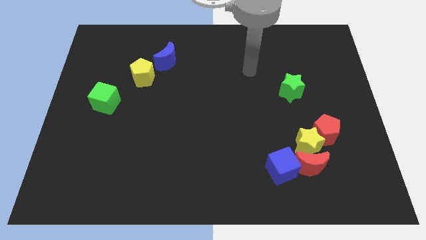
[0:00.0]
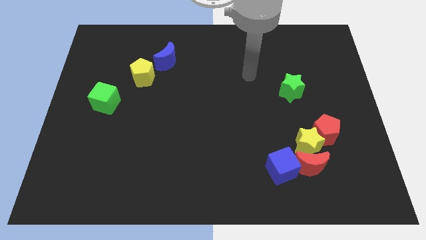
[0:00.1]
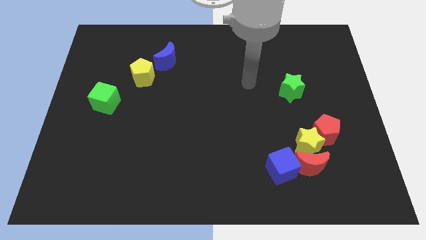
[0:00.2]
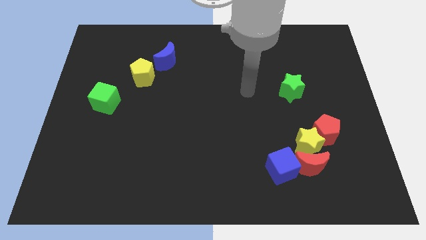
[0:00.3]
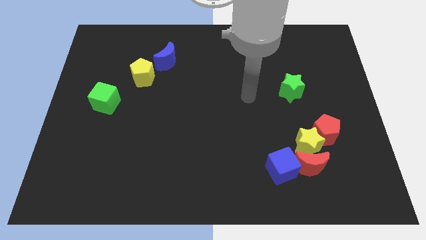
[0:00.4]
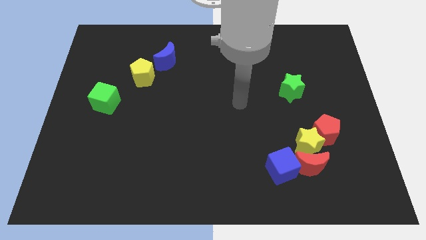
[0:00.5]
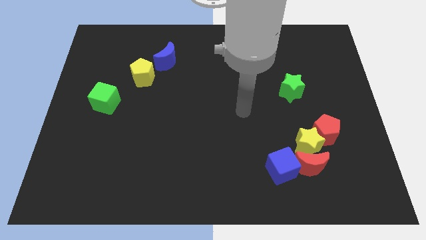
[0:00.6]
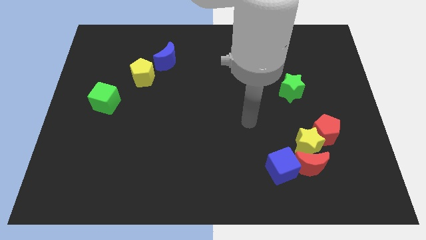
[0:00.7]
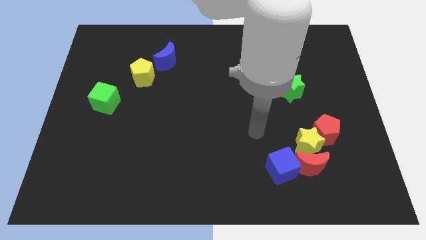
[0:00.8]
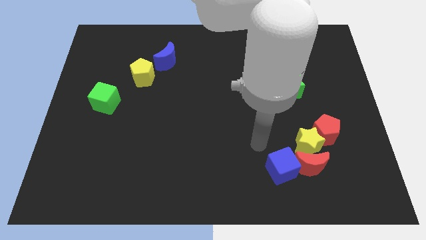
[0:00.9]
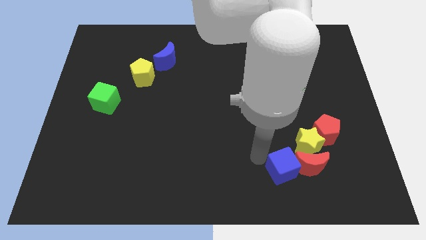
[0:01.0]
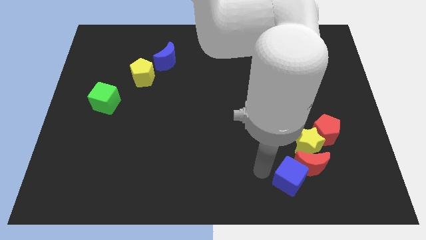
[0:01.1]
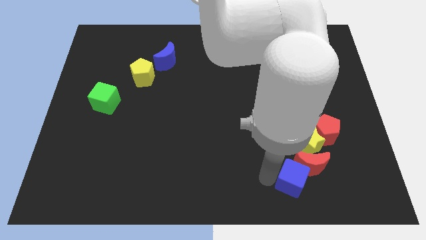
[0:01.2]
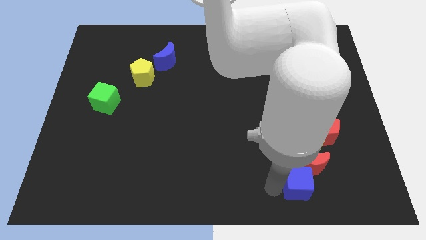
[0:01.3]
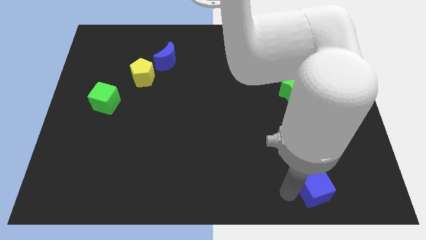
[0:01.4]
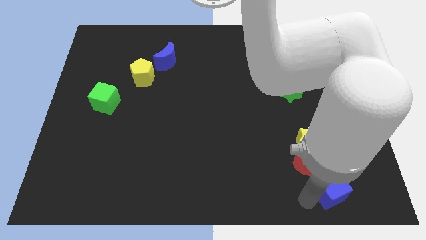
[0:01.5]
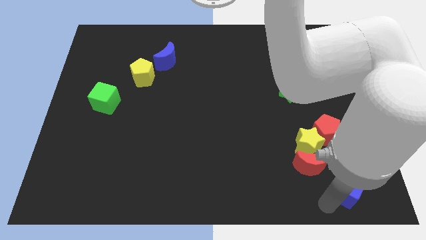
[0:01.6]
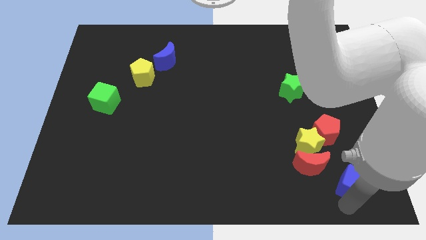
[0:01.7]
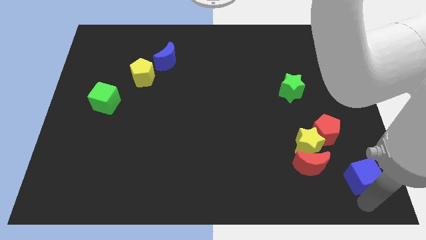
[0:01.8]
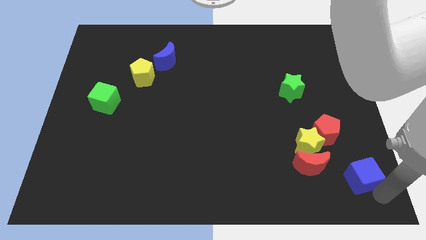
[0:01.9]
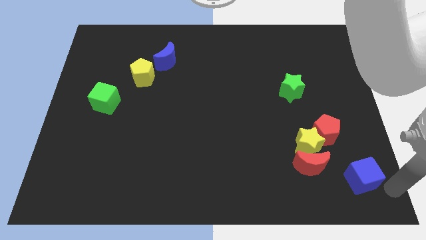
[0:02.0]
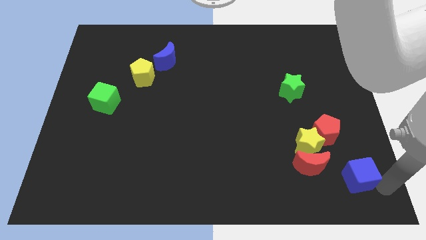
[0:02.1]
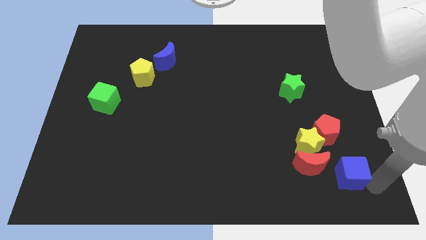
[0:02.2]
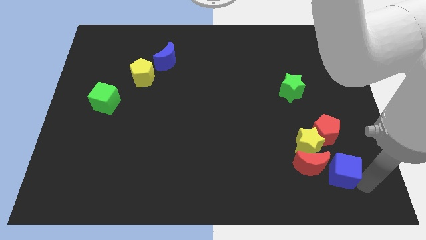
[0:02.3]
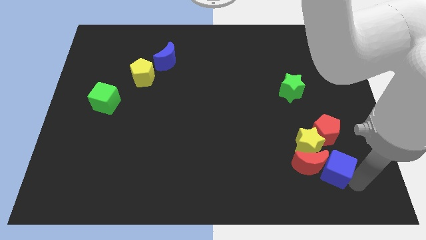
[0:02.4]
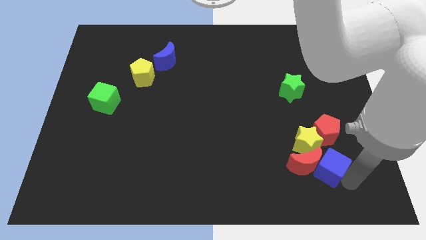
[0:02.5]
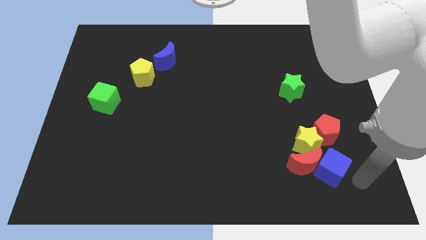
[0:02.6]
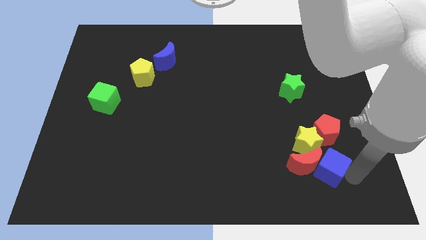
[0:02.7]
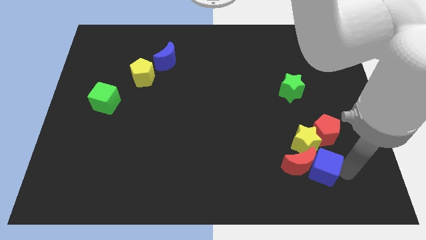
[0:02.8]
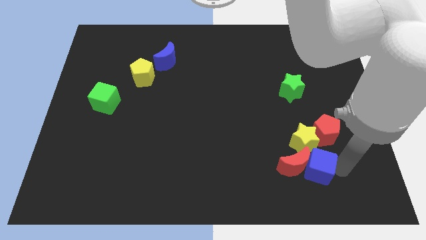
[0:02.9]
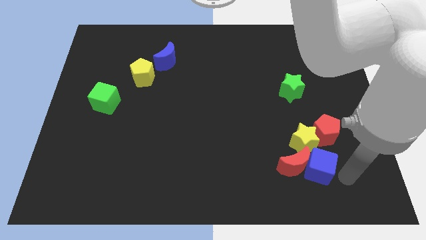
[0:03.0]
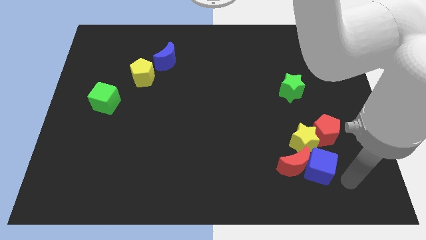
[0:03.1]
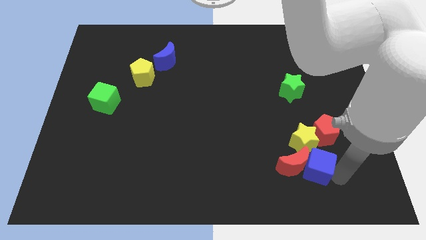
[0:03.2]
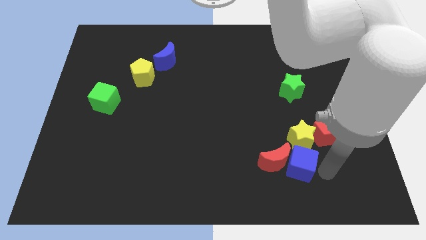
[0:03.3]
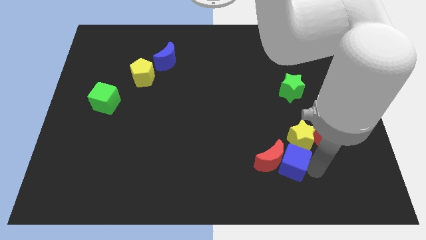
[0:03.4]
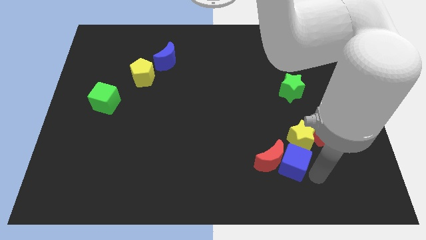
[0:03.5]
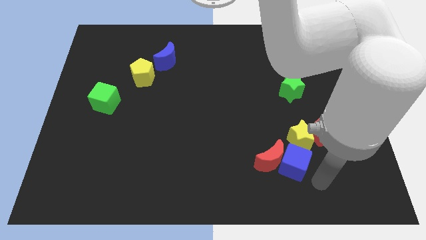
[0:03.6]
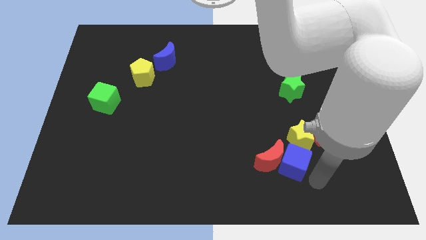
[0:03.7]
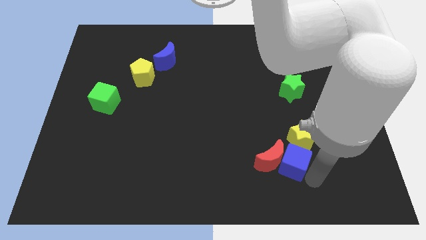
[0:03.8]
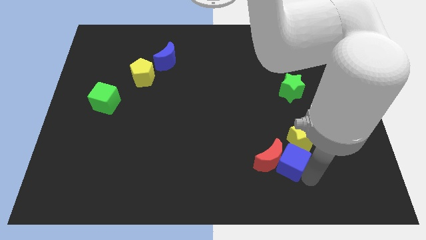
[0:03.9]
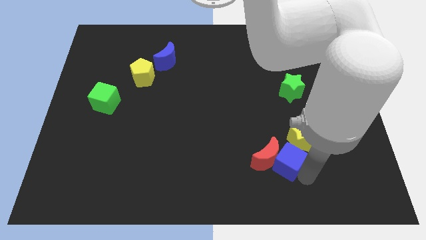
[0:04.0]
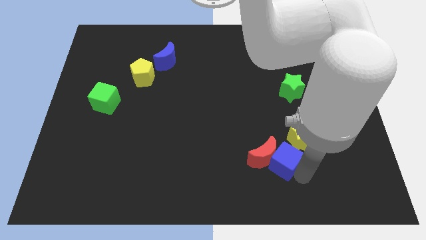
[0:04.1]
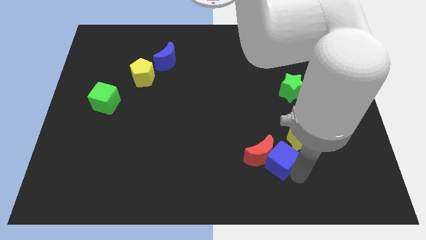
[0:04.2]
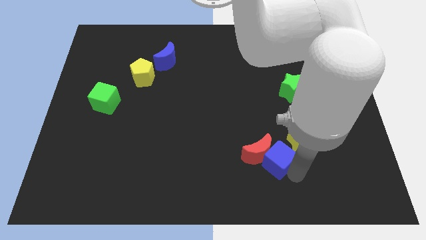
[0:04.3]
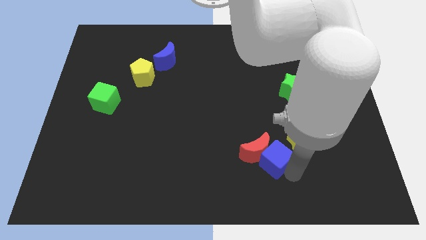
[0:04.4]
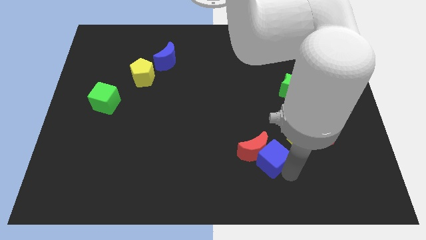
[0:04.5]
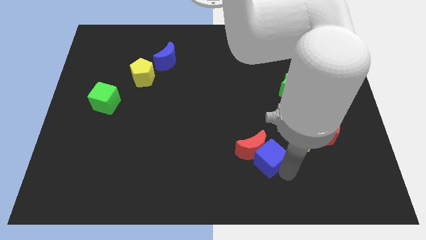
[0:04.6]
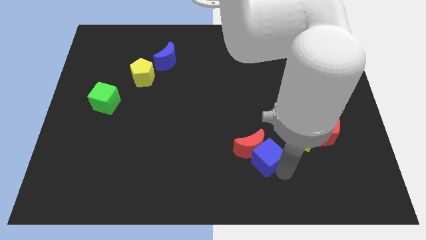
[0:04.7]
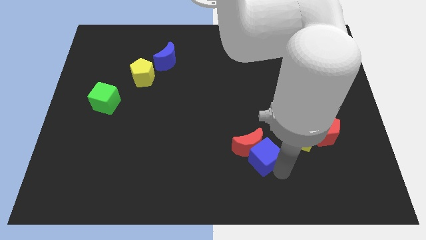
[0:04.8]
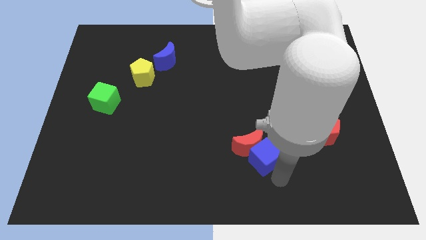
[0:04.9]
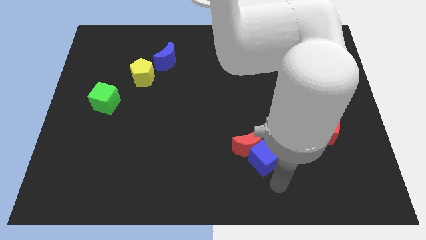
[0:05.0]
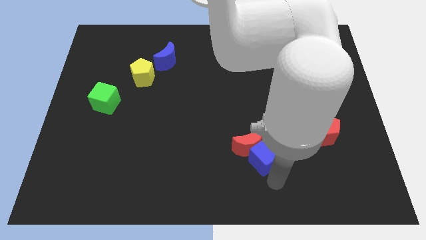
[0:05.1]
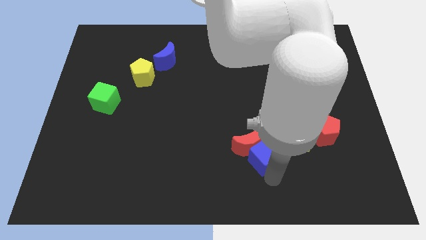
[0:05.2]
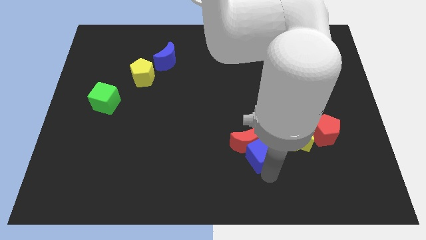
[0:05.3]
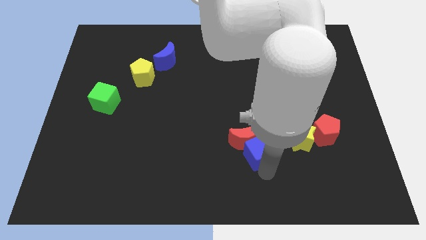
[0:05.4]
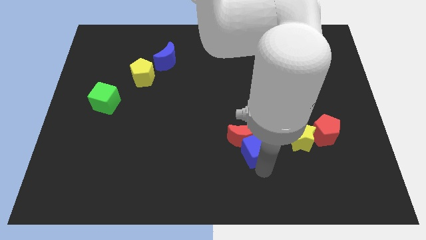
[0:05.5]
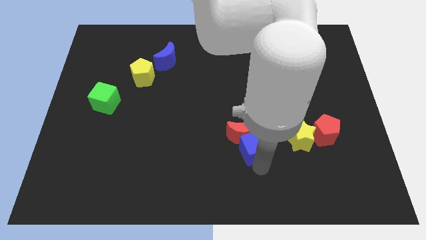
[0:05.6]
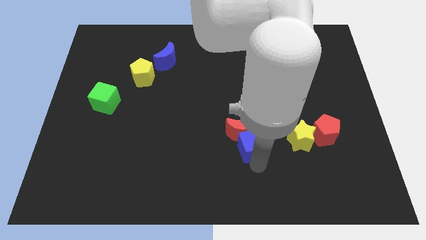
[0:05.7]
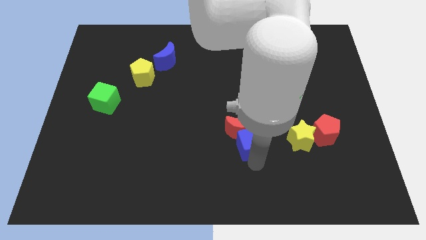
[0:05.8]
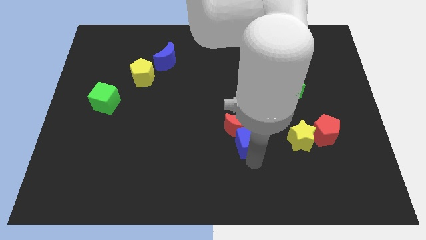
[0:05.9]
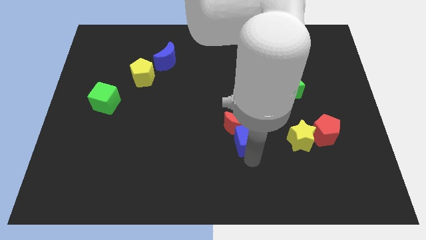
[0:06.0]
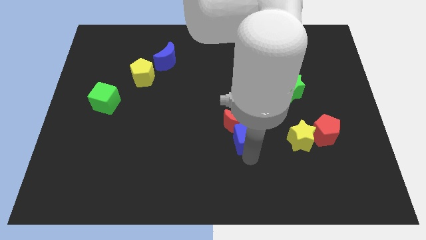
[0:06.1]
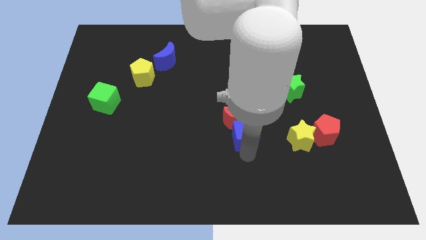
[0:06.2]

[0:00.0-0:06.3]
move the blue cube to the center of the board
